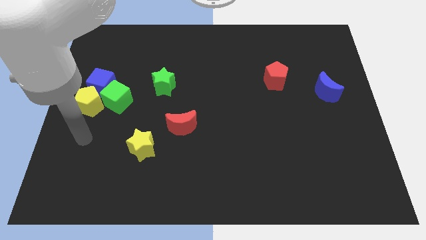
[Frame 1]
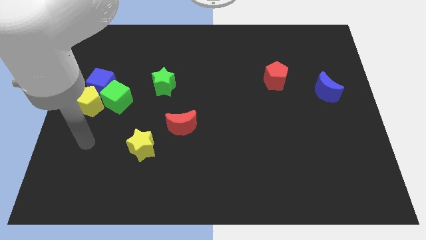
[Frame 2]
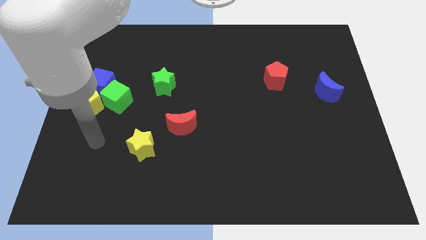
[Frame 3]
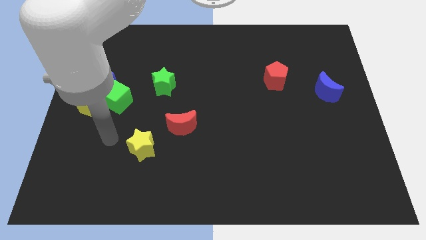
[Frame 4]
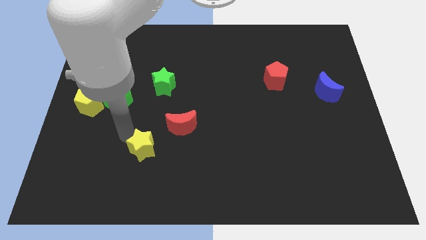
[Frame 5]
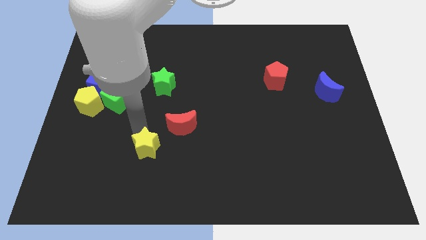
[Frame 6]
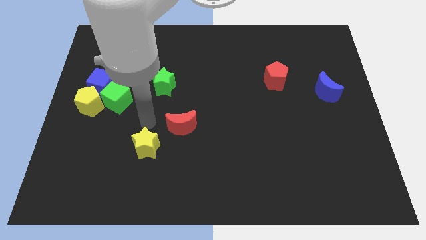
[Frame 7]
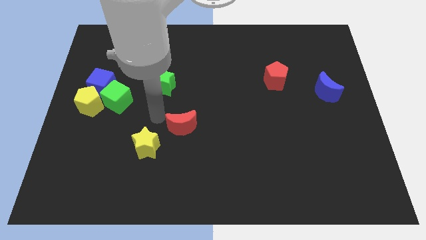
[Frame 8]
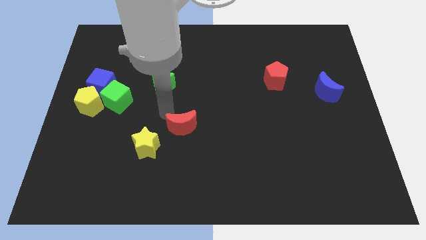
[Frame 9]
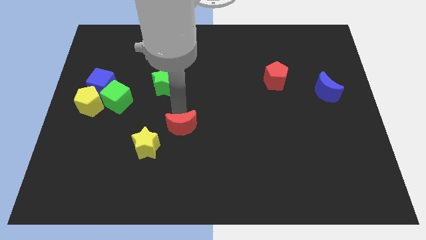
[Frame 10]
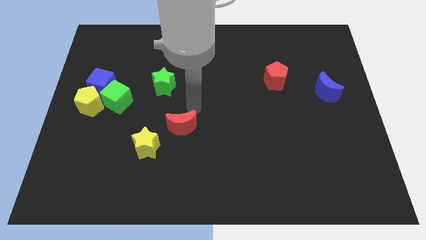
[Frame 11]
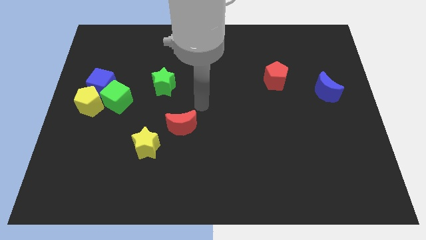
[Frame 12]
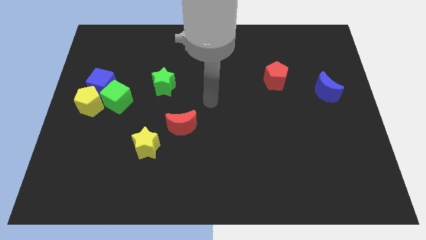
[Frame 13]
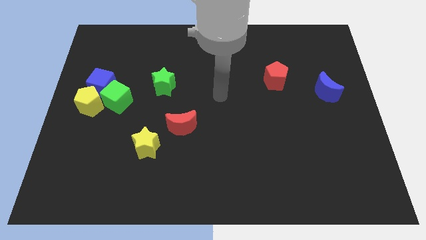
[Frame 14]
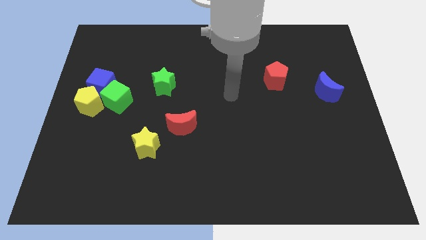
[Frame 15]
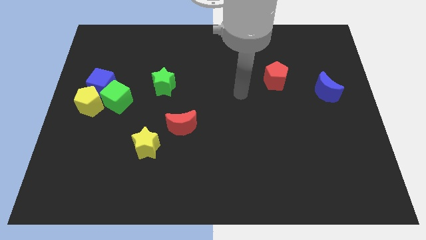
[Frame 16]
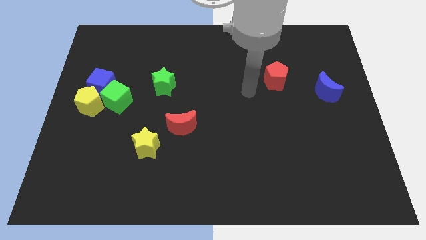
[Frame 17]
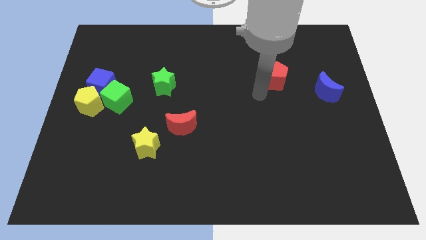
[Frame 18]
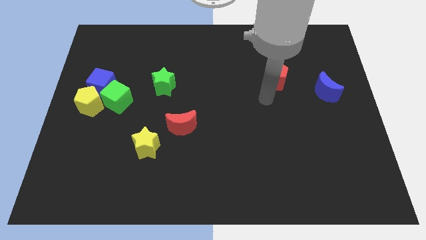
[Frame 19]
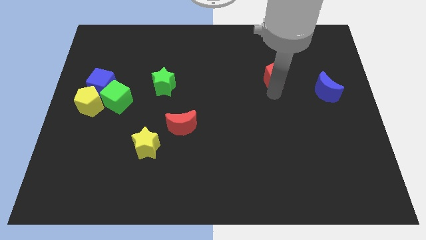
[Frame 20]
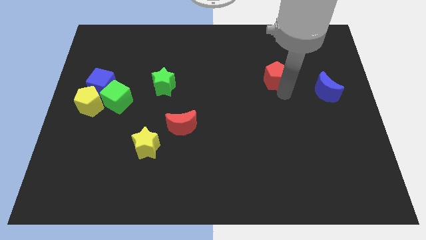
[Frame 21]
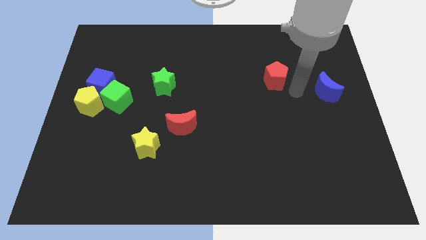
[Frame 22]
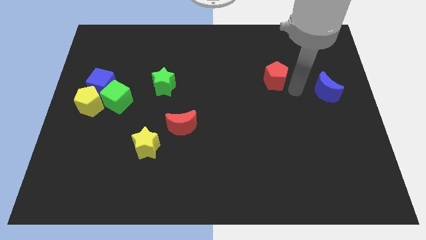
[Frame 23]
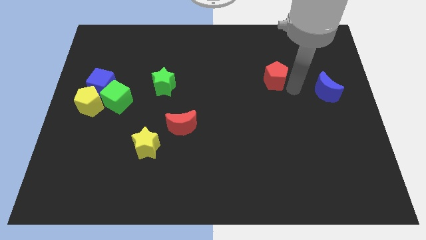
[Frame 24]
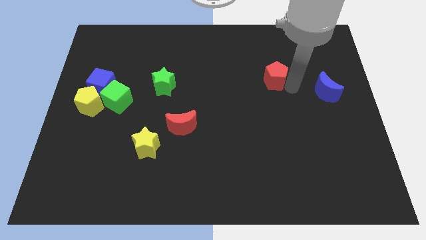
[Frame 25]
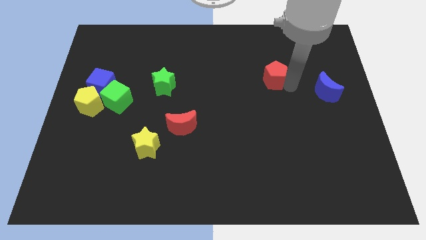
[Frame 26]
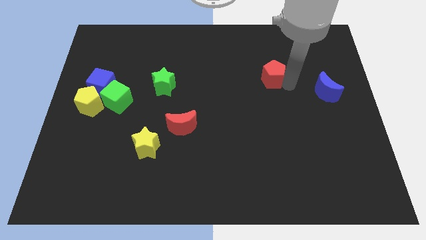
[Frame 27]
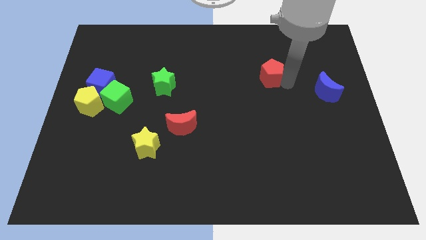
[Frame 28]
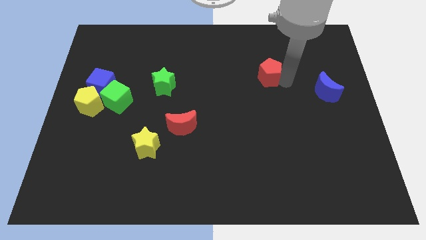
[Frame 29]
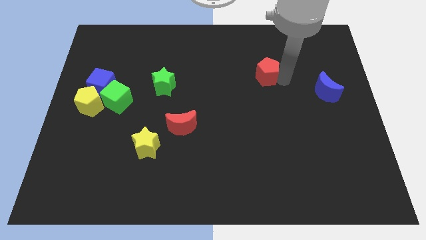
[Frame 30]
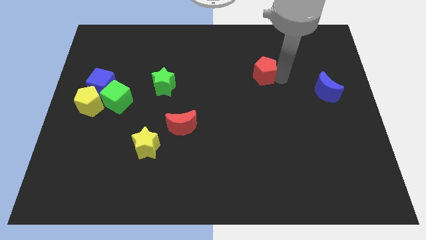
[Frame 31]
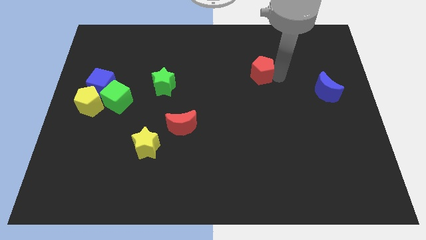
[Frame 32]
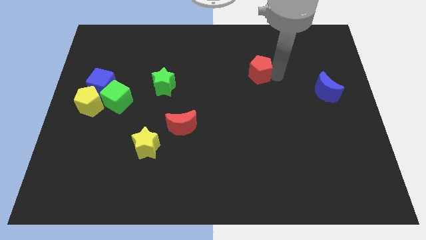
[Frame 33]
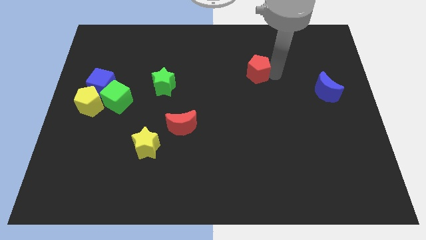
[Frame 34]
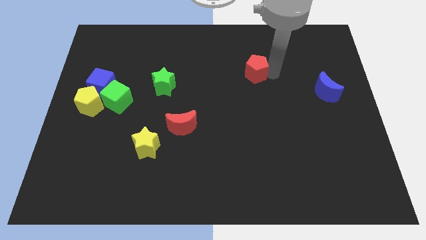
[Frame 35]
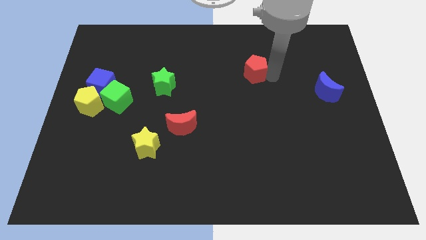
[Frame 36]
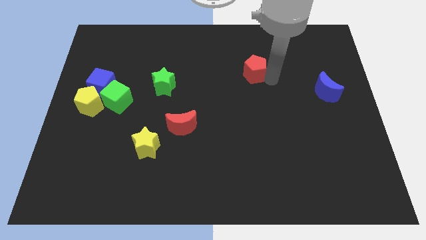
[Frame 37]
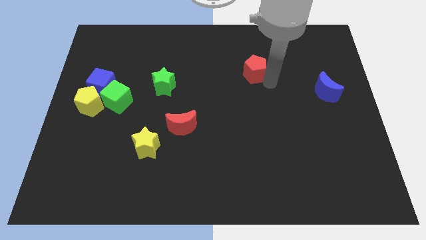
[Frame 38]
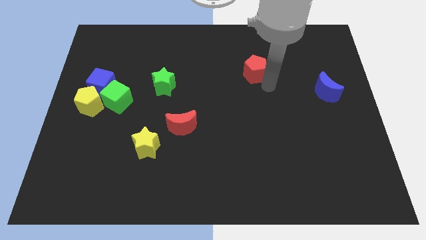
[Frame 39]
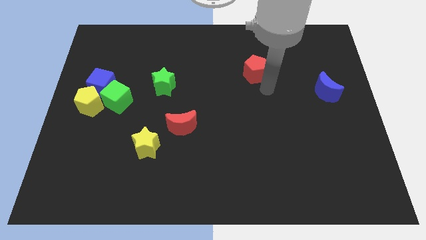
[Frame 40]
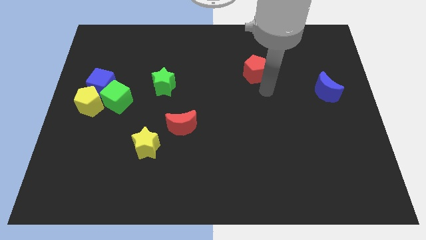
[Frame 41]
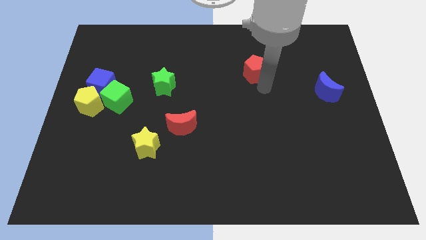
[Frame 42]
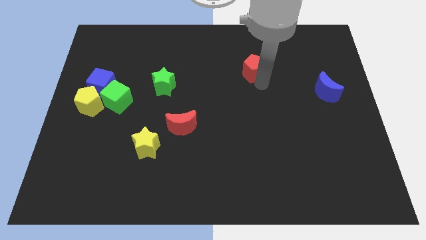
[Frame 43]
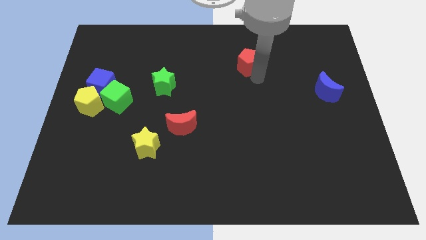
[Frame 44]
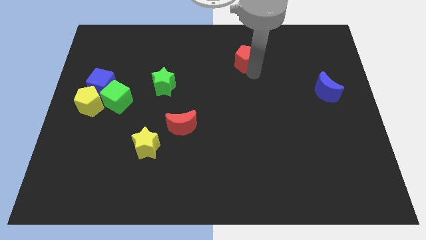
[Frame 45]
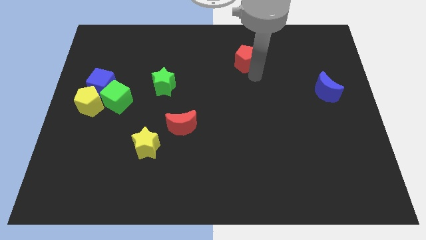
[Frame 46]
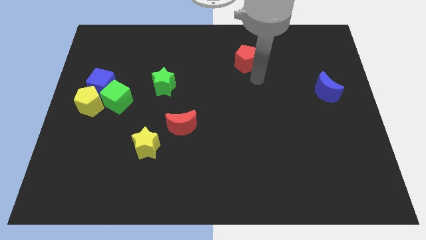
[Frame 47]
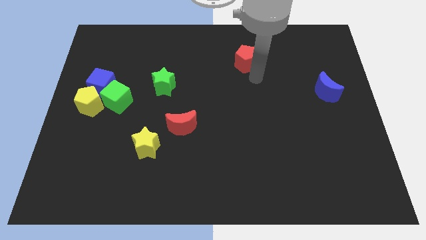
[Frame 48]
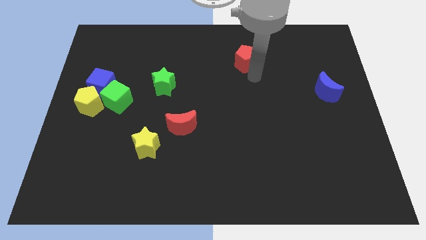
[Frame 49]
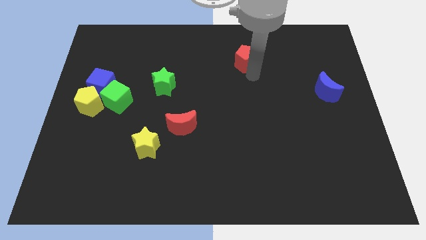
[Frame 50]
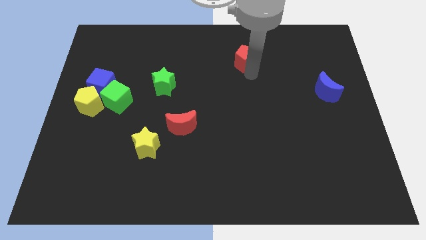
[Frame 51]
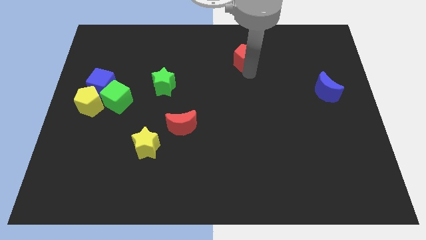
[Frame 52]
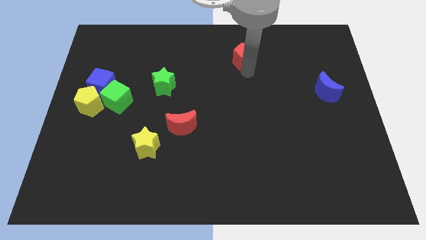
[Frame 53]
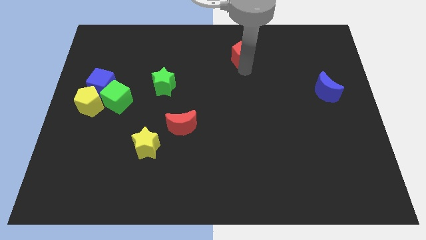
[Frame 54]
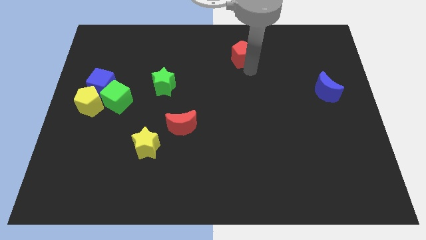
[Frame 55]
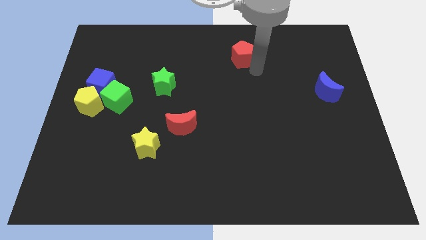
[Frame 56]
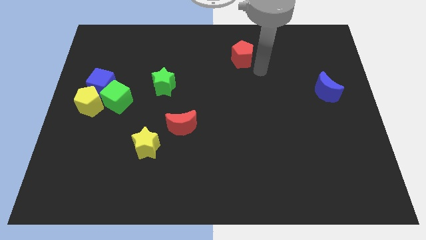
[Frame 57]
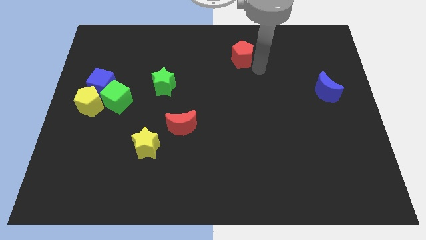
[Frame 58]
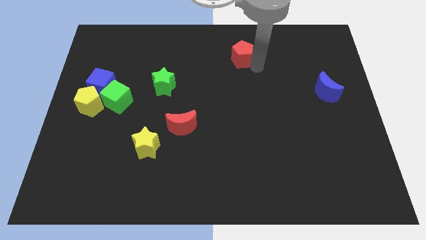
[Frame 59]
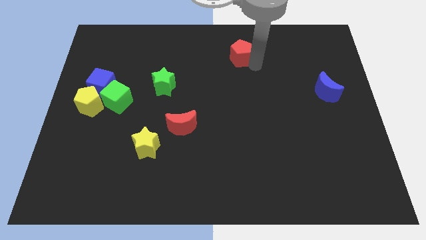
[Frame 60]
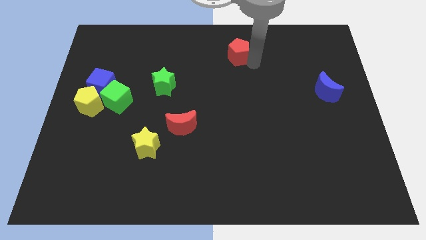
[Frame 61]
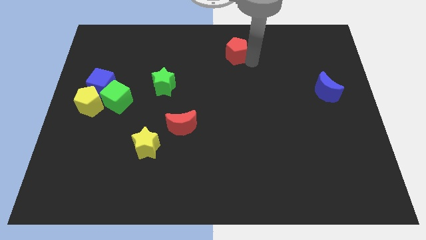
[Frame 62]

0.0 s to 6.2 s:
slide the red pentagon to the towards your base
